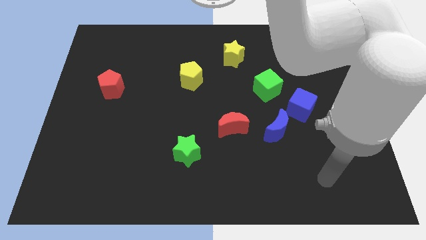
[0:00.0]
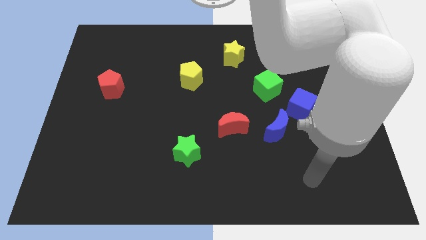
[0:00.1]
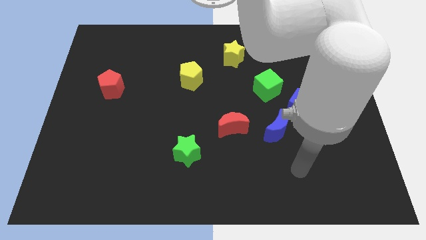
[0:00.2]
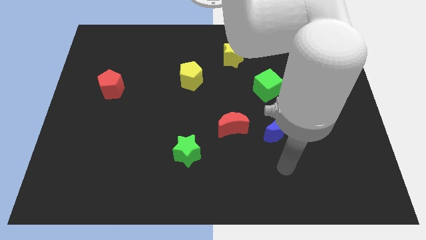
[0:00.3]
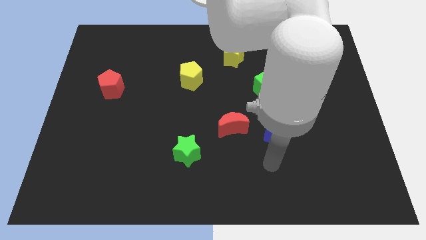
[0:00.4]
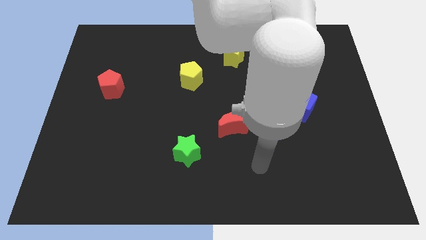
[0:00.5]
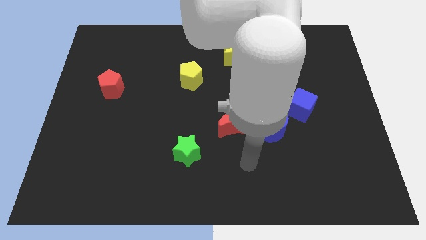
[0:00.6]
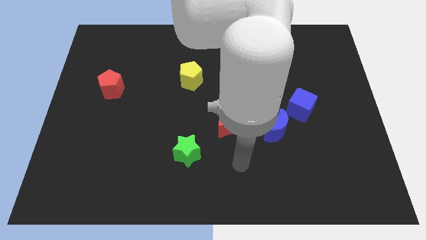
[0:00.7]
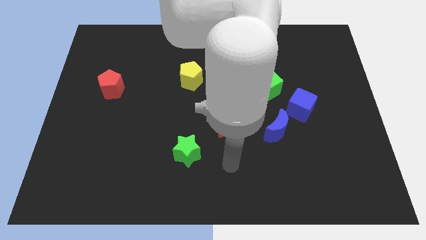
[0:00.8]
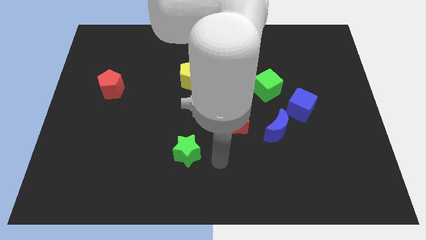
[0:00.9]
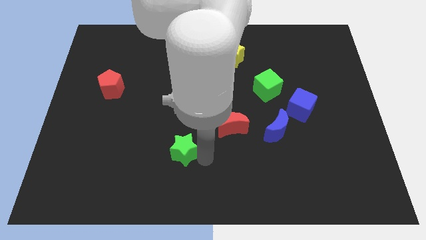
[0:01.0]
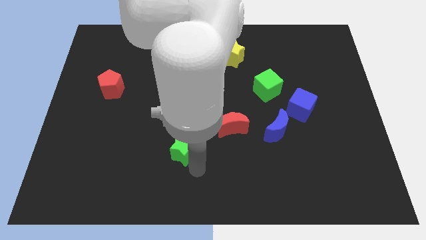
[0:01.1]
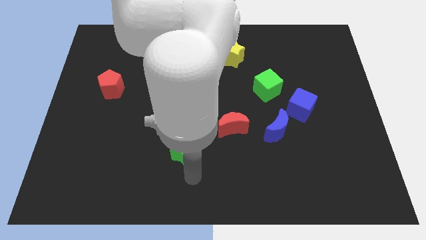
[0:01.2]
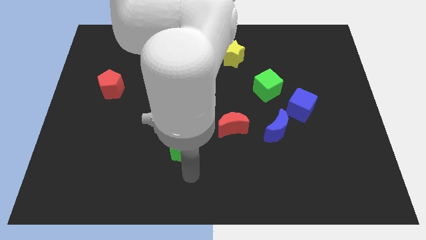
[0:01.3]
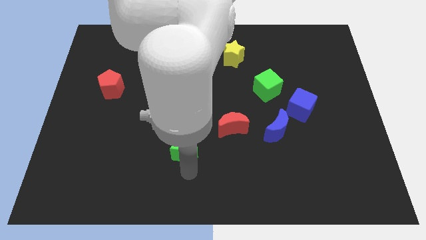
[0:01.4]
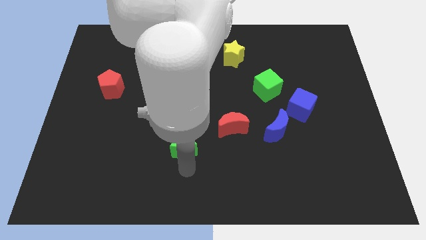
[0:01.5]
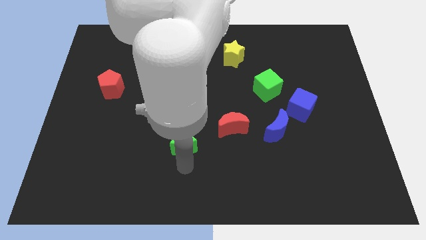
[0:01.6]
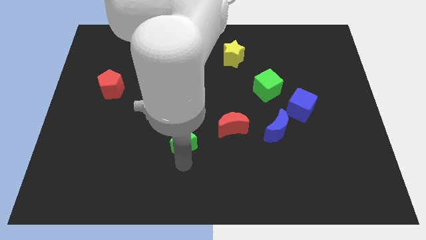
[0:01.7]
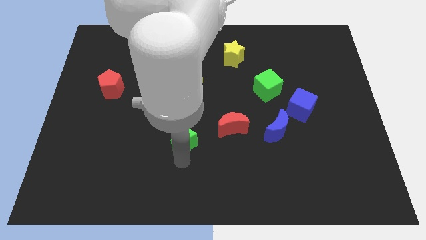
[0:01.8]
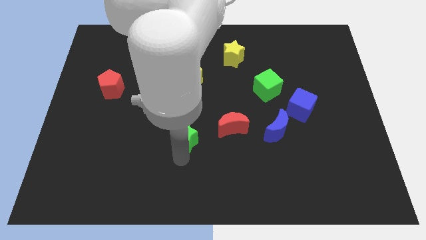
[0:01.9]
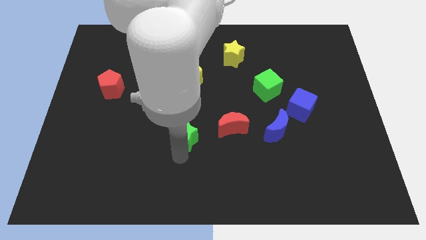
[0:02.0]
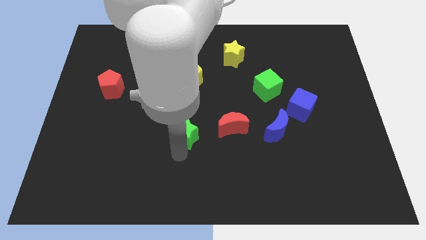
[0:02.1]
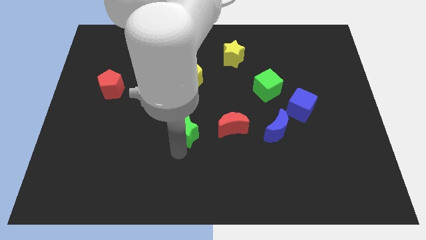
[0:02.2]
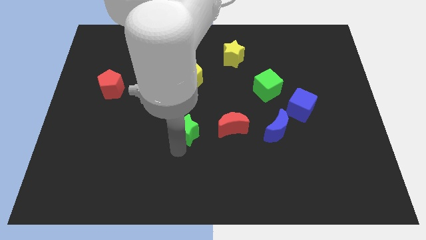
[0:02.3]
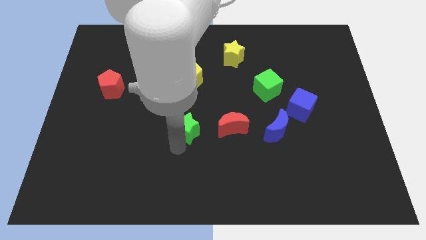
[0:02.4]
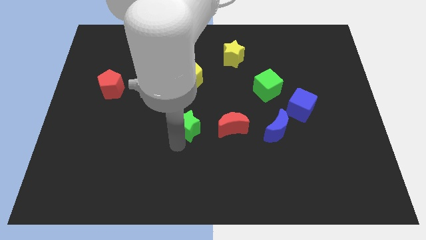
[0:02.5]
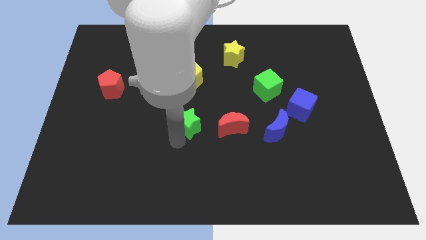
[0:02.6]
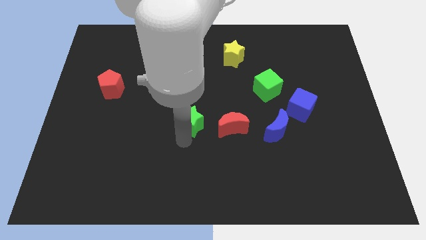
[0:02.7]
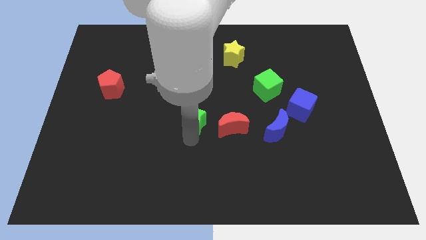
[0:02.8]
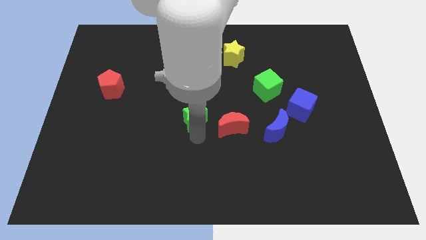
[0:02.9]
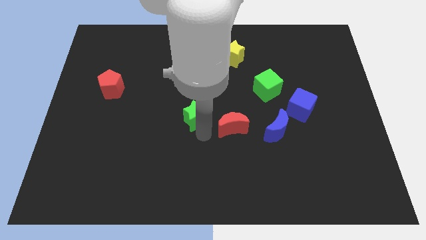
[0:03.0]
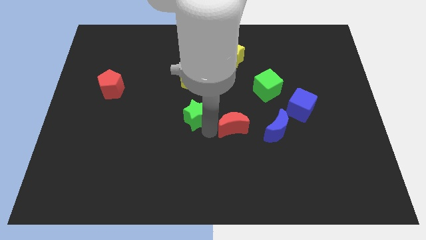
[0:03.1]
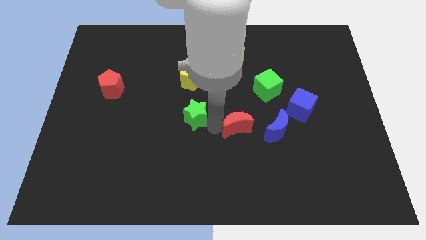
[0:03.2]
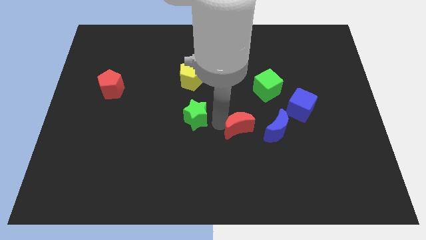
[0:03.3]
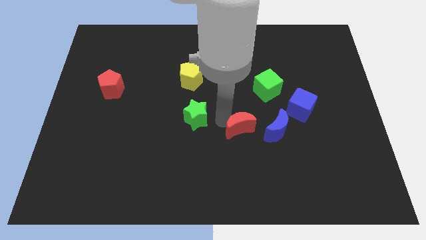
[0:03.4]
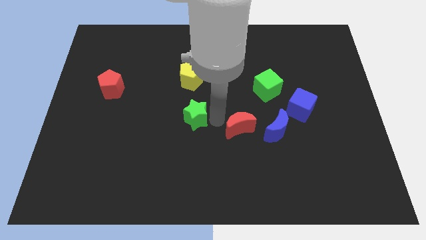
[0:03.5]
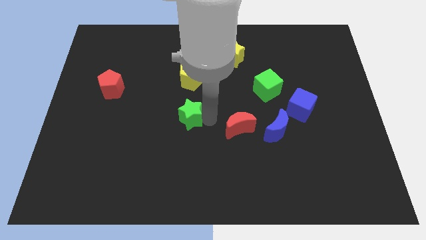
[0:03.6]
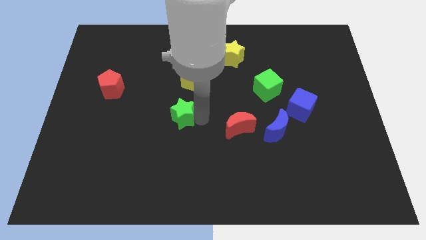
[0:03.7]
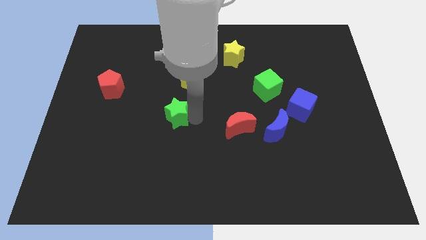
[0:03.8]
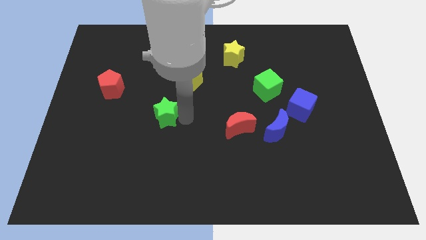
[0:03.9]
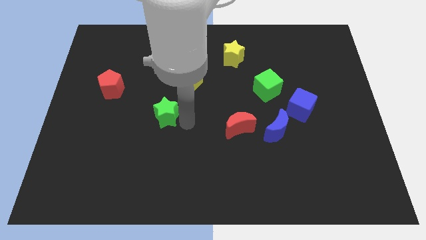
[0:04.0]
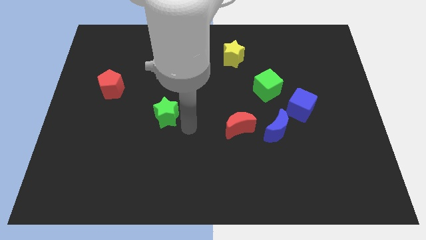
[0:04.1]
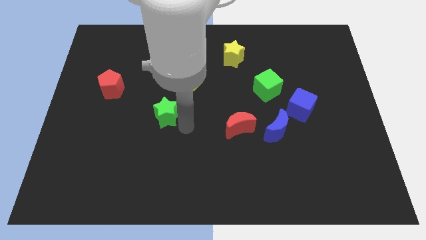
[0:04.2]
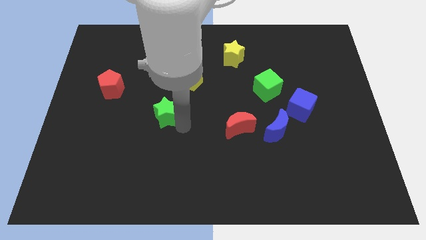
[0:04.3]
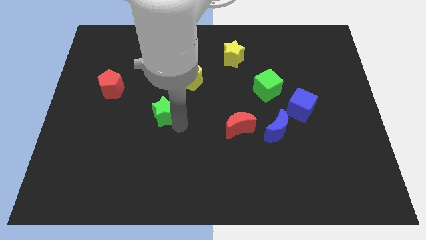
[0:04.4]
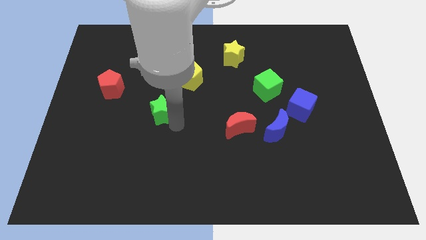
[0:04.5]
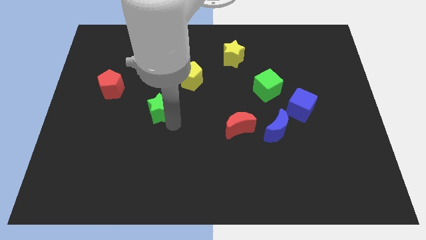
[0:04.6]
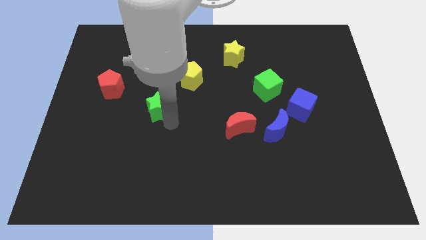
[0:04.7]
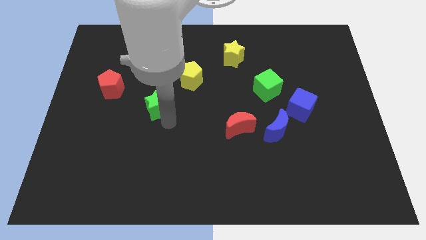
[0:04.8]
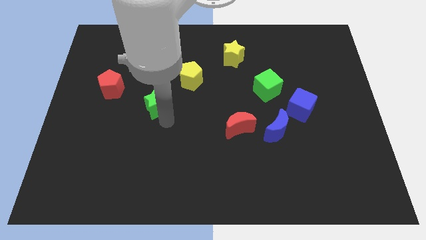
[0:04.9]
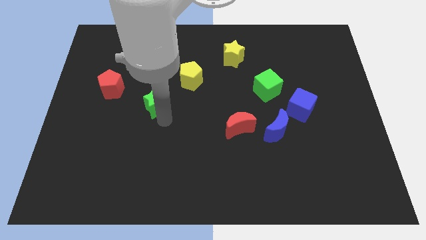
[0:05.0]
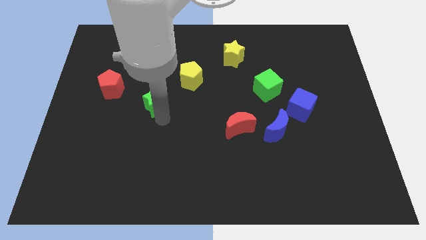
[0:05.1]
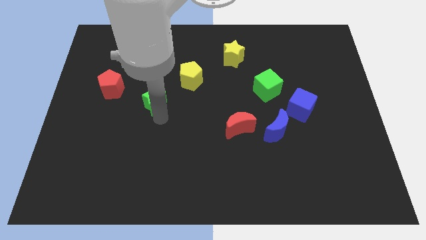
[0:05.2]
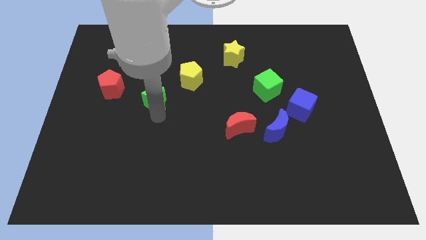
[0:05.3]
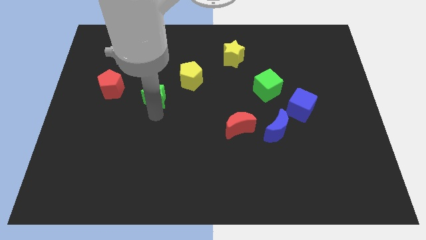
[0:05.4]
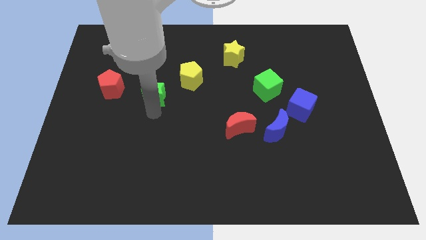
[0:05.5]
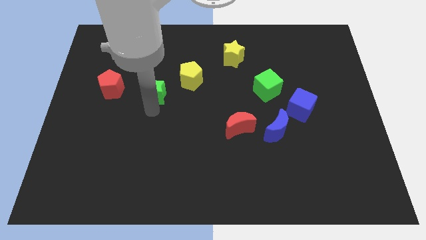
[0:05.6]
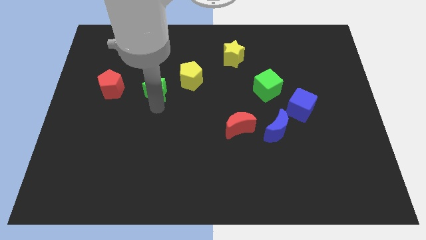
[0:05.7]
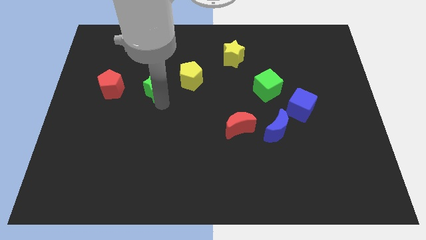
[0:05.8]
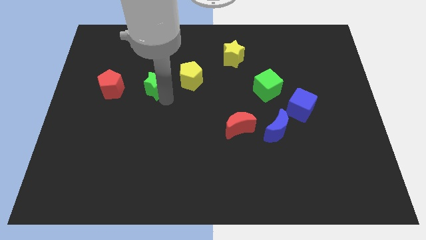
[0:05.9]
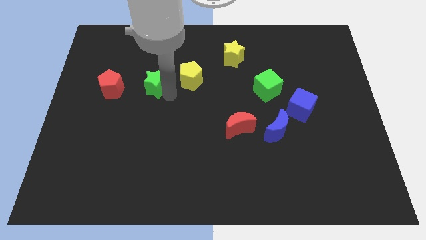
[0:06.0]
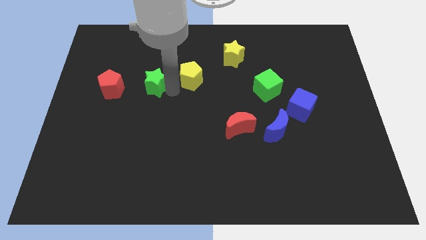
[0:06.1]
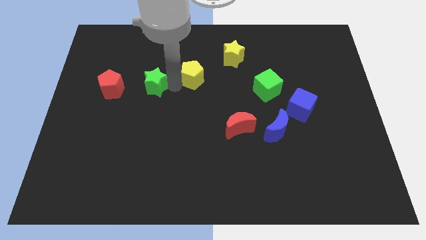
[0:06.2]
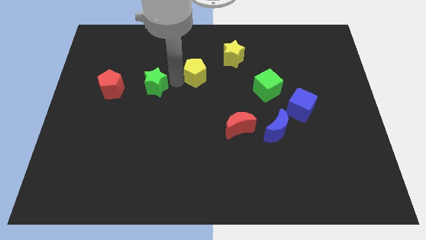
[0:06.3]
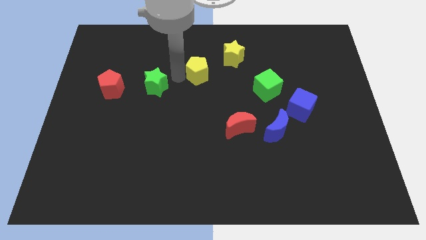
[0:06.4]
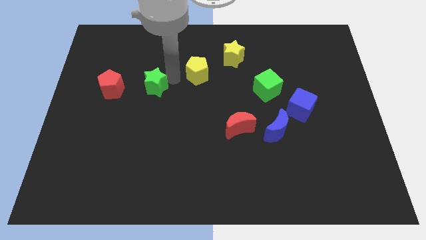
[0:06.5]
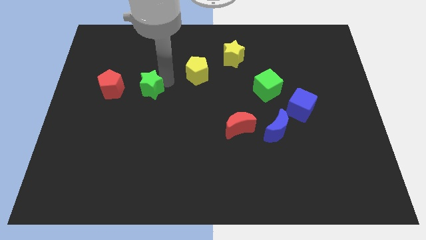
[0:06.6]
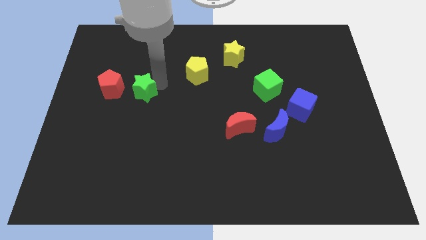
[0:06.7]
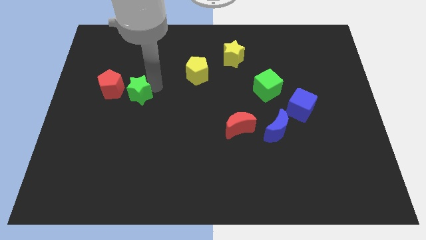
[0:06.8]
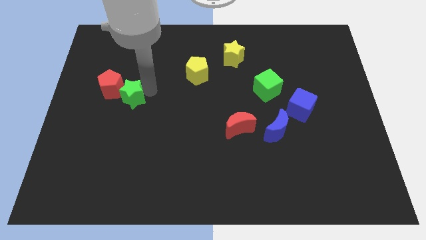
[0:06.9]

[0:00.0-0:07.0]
move the green star to the red pentagon
